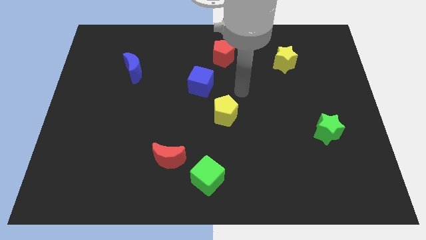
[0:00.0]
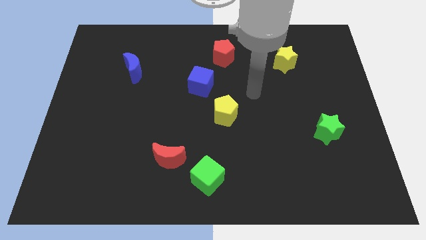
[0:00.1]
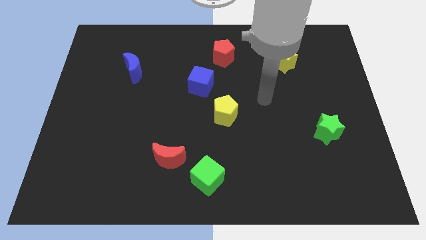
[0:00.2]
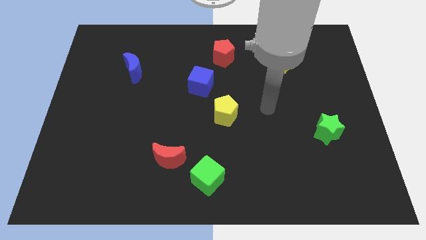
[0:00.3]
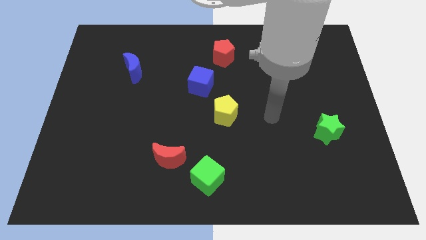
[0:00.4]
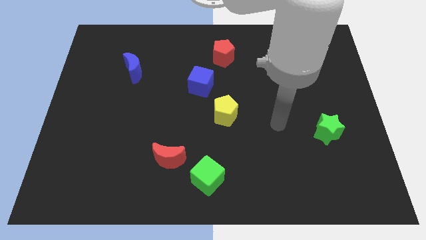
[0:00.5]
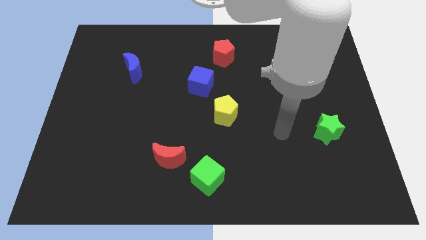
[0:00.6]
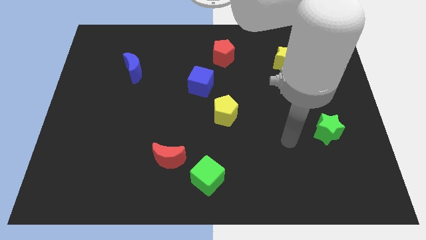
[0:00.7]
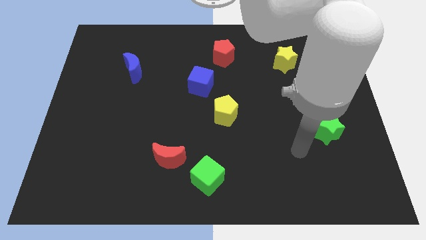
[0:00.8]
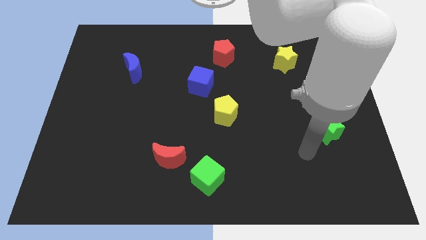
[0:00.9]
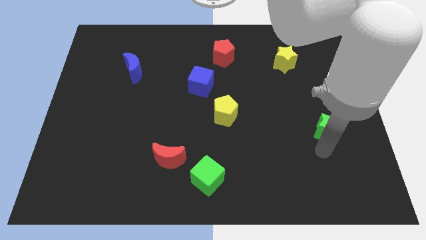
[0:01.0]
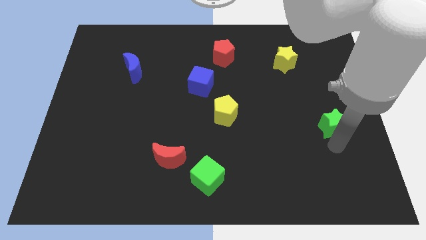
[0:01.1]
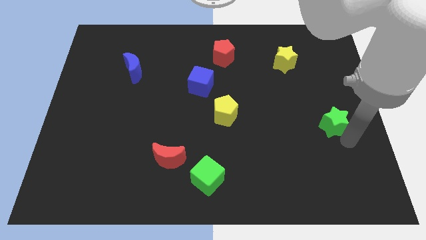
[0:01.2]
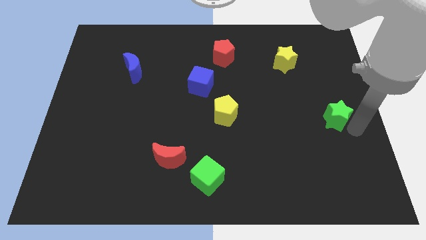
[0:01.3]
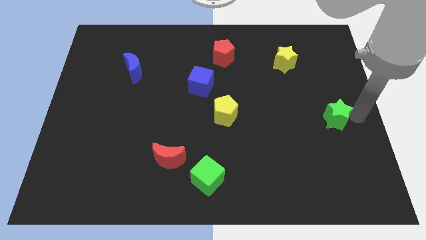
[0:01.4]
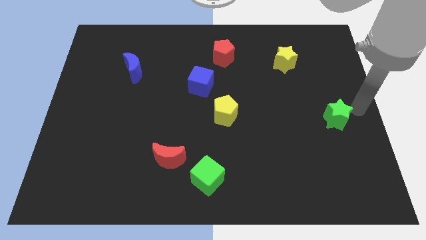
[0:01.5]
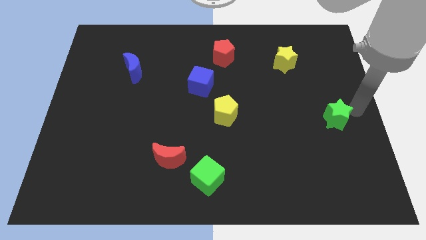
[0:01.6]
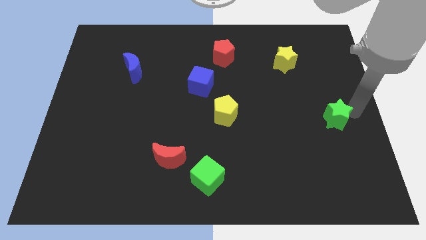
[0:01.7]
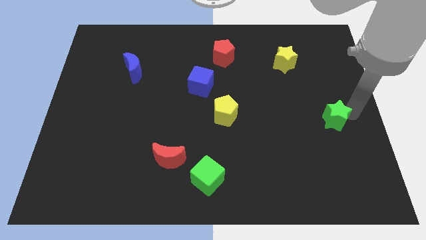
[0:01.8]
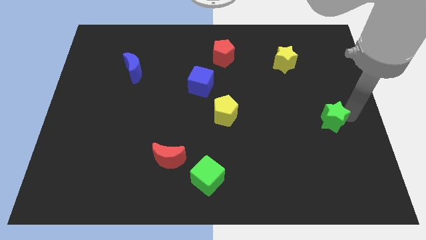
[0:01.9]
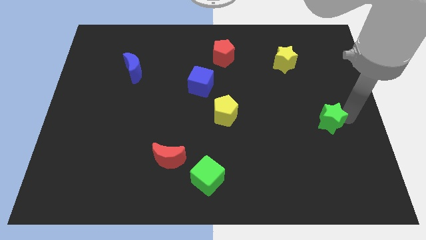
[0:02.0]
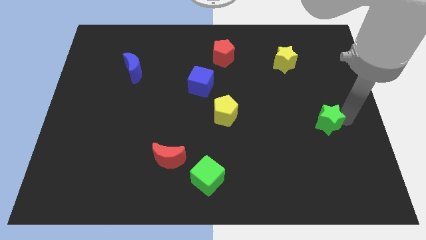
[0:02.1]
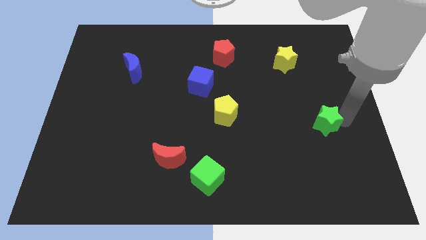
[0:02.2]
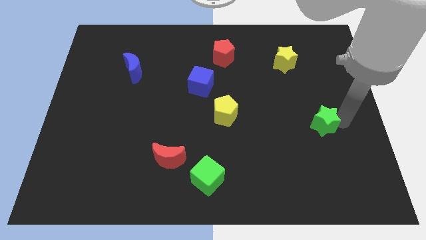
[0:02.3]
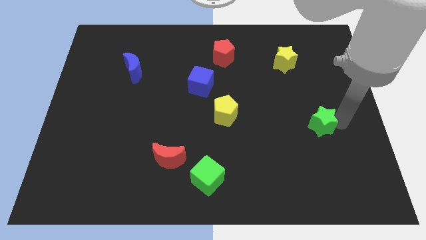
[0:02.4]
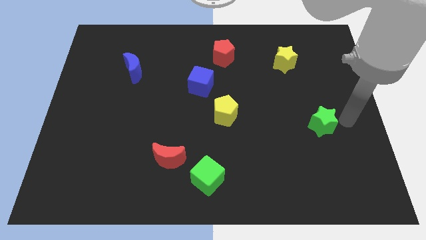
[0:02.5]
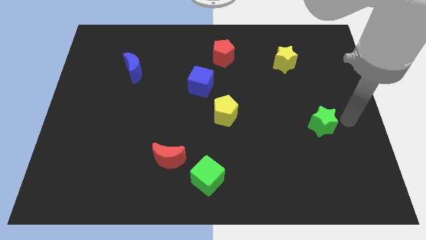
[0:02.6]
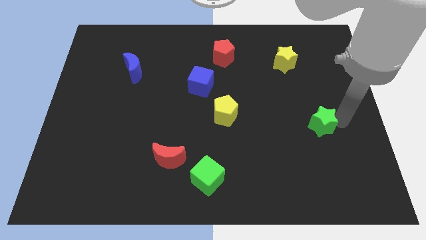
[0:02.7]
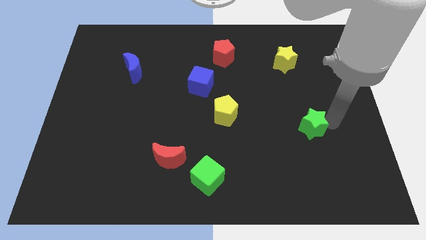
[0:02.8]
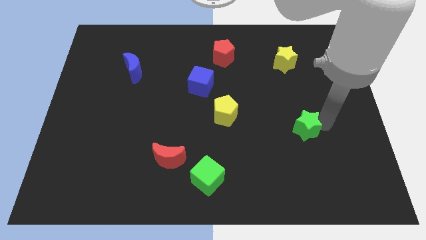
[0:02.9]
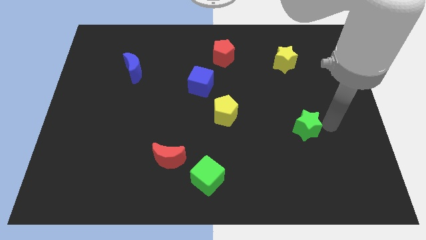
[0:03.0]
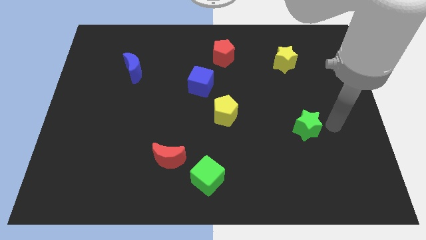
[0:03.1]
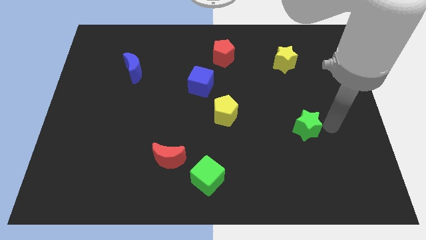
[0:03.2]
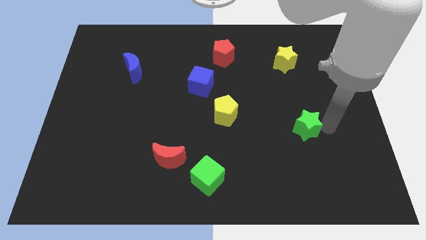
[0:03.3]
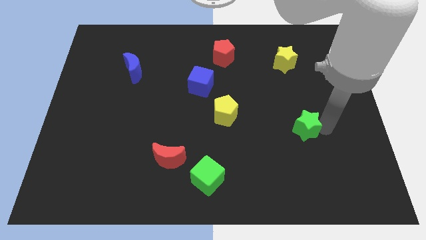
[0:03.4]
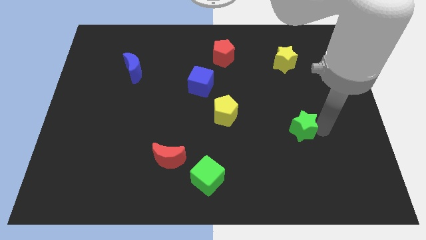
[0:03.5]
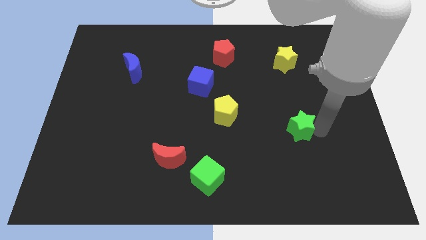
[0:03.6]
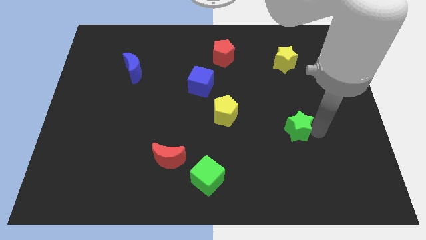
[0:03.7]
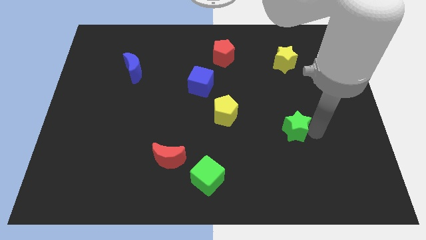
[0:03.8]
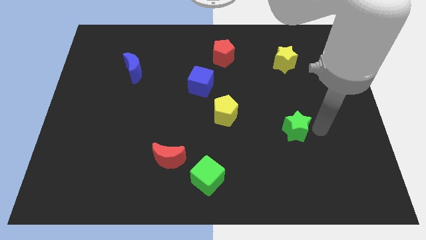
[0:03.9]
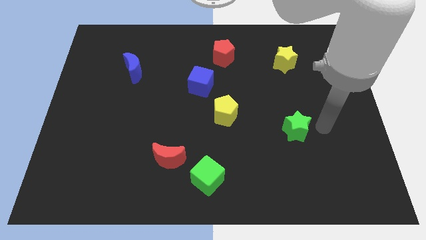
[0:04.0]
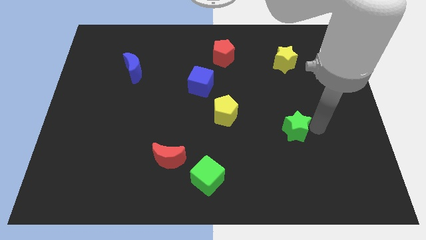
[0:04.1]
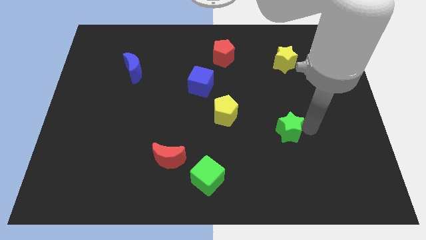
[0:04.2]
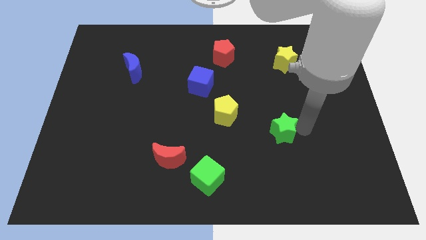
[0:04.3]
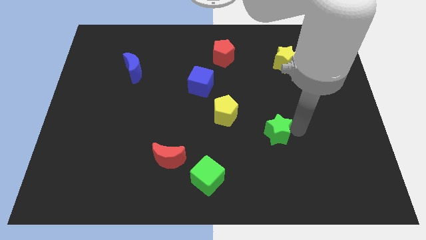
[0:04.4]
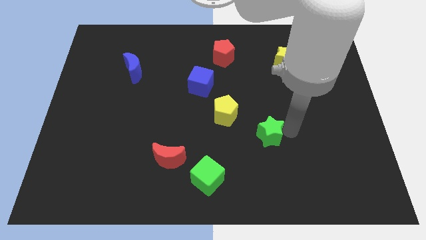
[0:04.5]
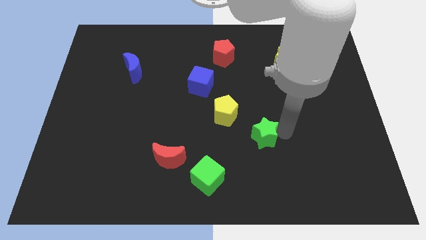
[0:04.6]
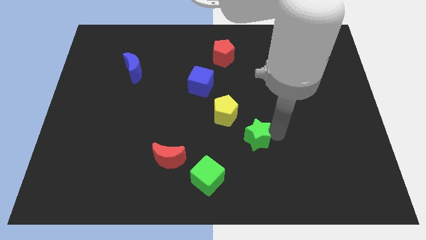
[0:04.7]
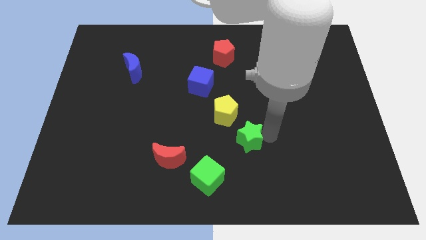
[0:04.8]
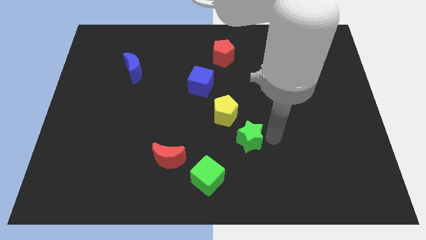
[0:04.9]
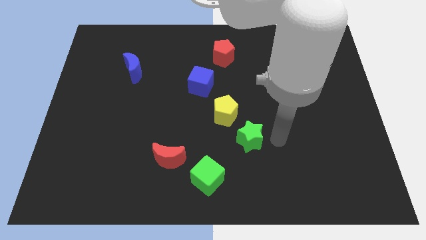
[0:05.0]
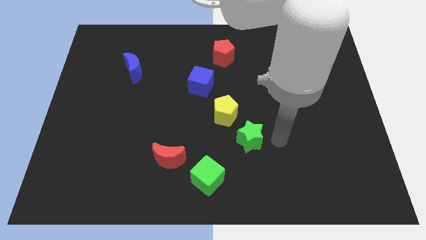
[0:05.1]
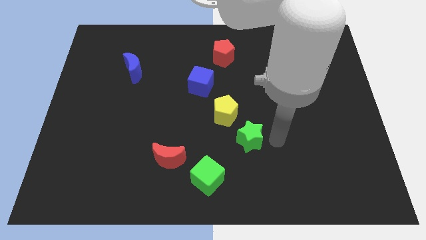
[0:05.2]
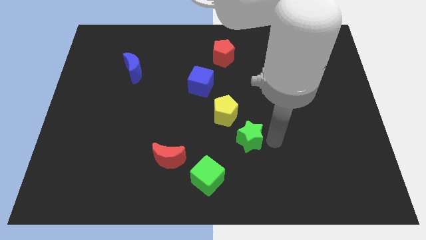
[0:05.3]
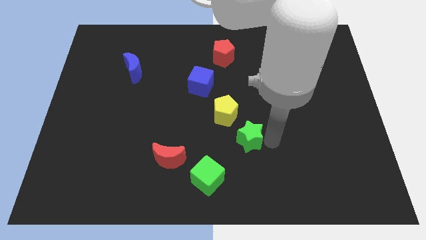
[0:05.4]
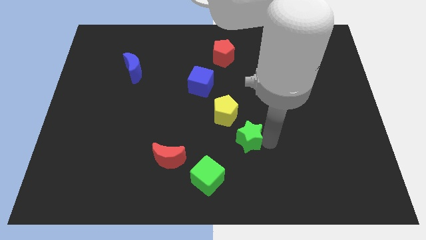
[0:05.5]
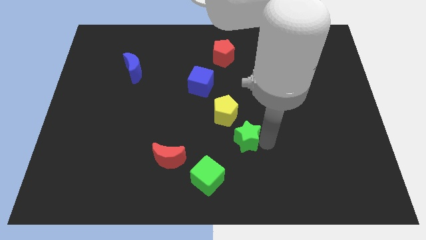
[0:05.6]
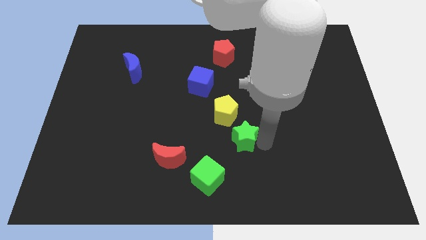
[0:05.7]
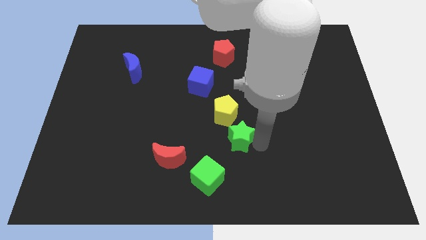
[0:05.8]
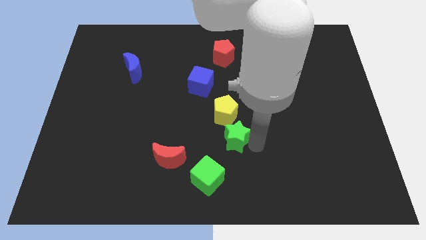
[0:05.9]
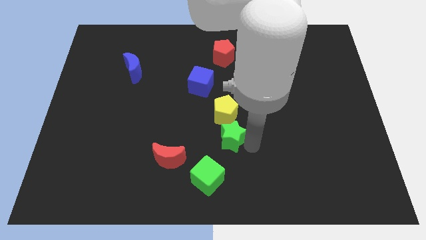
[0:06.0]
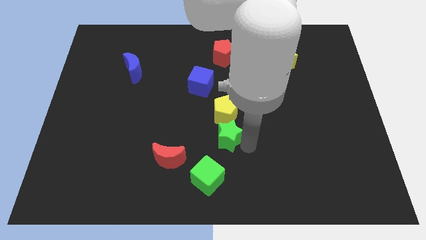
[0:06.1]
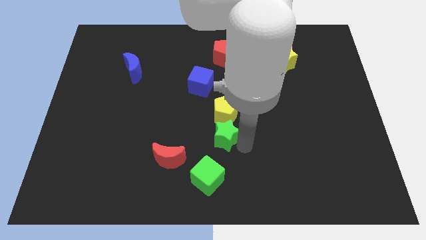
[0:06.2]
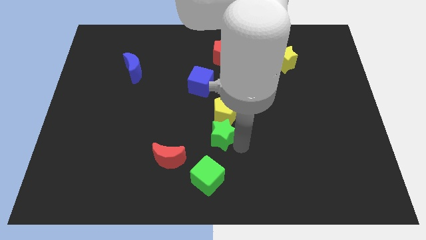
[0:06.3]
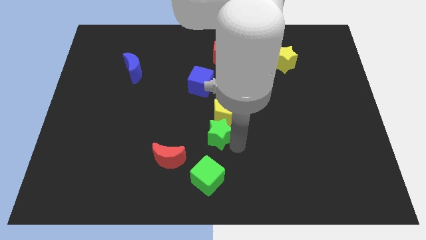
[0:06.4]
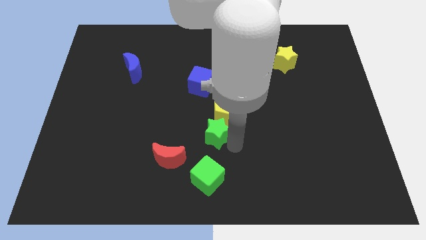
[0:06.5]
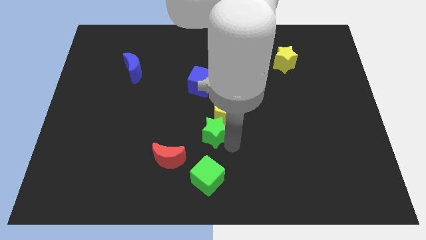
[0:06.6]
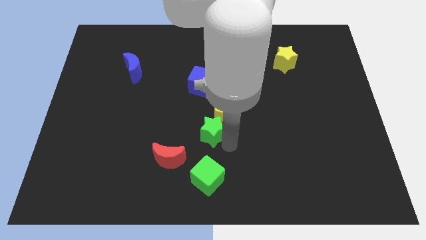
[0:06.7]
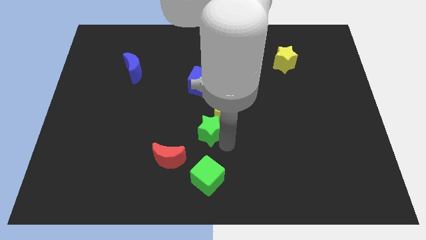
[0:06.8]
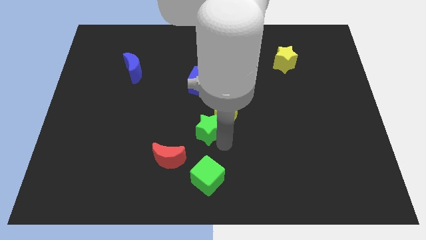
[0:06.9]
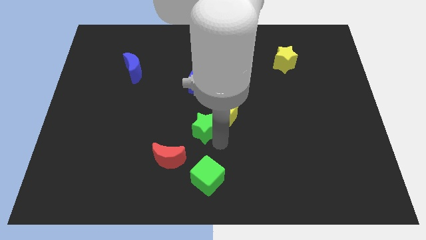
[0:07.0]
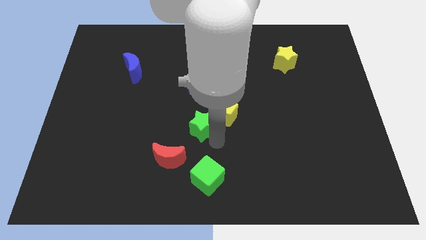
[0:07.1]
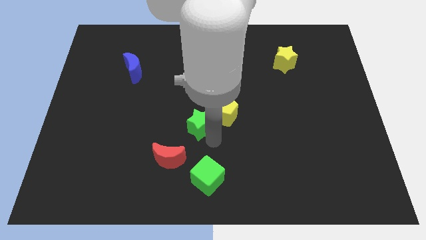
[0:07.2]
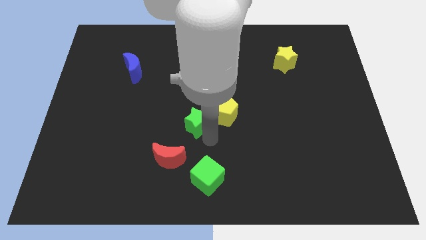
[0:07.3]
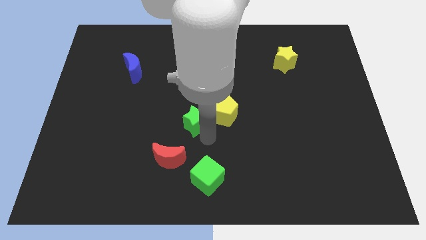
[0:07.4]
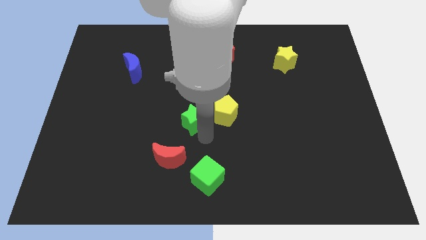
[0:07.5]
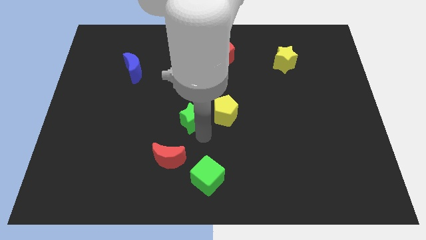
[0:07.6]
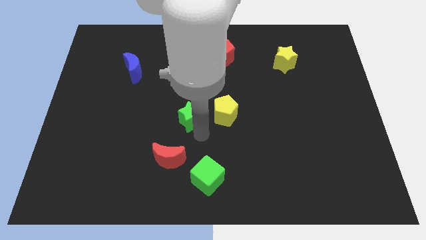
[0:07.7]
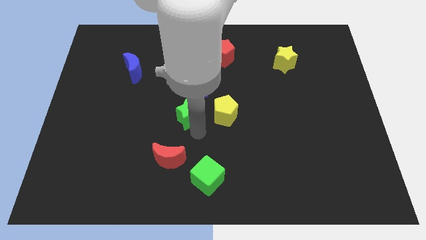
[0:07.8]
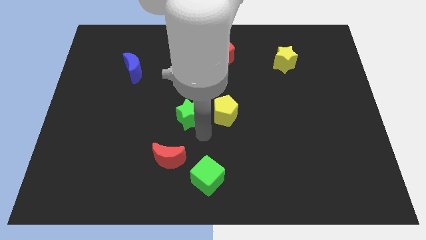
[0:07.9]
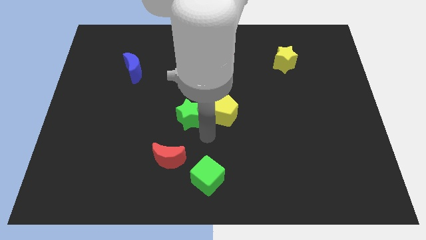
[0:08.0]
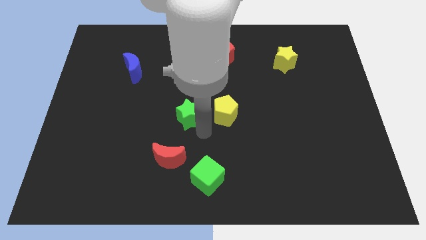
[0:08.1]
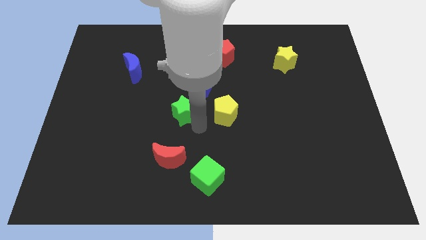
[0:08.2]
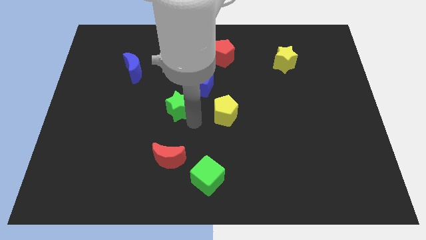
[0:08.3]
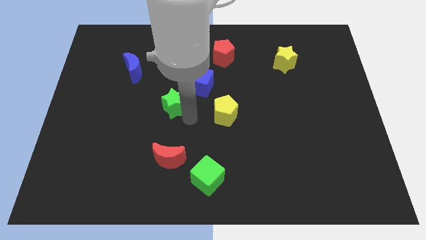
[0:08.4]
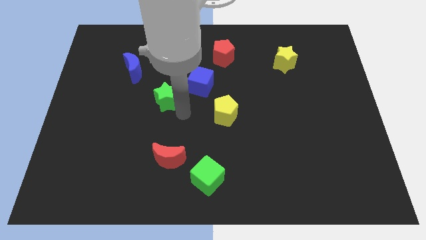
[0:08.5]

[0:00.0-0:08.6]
move the green star left of the blue cube
